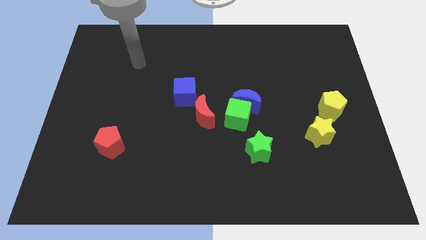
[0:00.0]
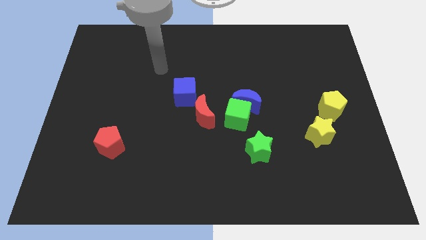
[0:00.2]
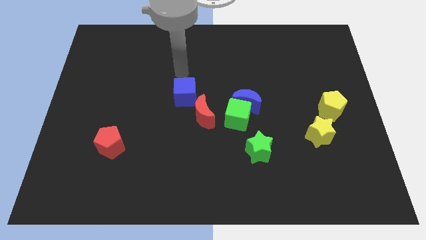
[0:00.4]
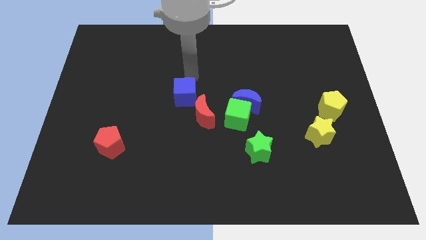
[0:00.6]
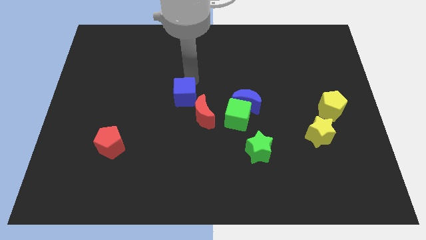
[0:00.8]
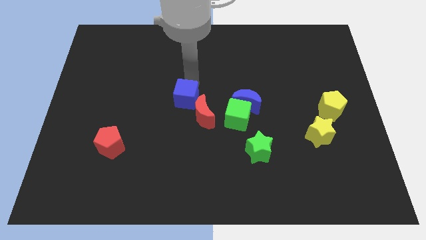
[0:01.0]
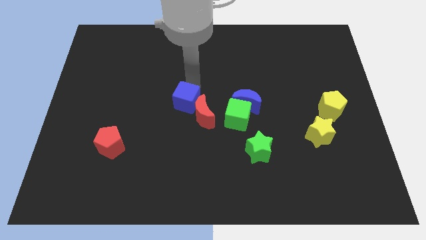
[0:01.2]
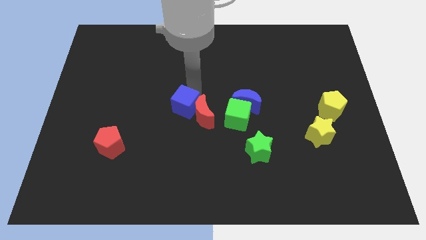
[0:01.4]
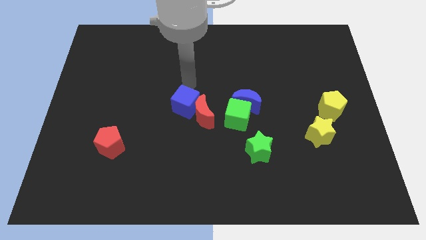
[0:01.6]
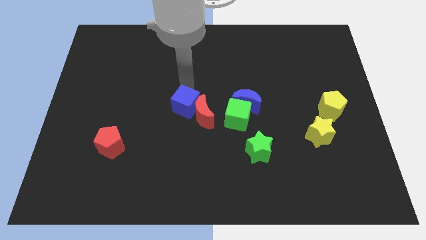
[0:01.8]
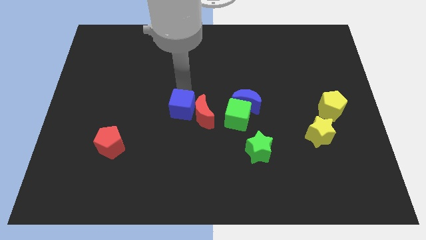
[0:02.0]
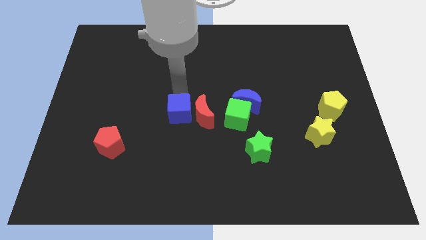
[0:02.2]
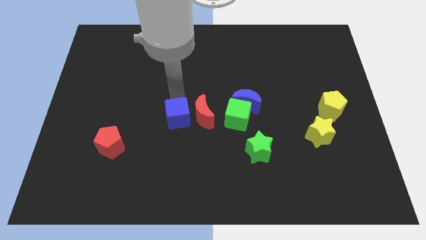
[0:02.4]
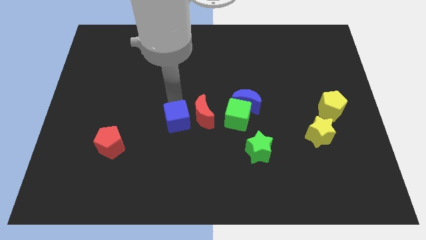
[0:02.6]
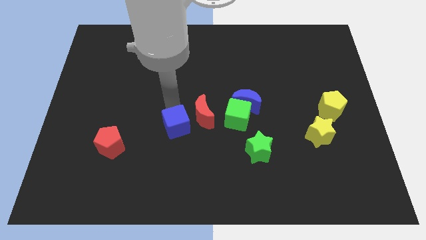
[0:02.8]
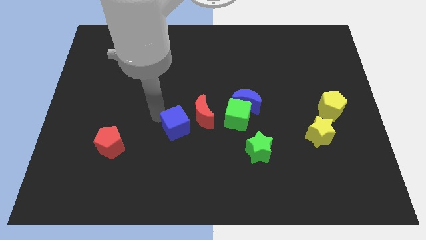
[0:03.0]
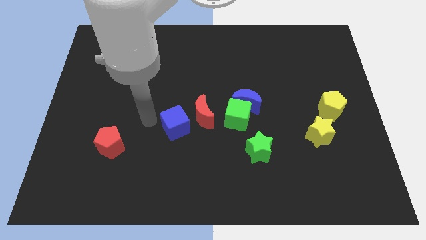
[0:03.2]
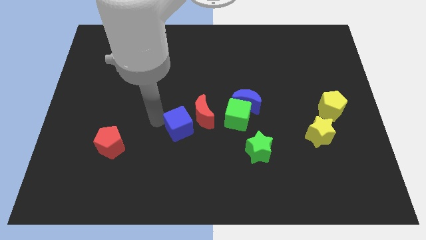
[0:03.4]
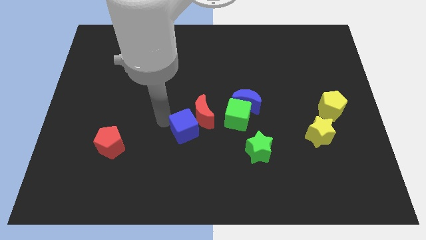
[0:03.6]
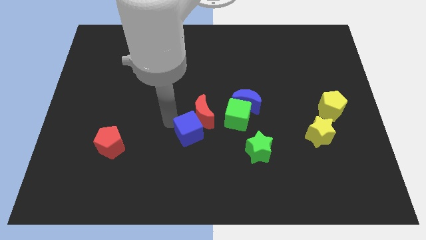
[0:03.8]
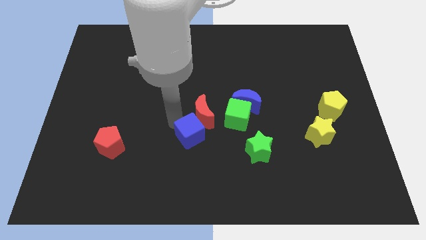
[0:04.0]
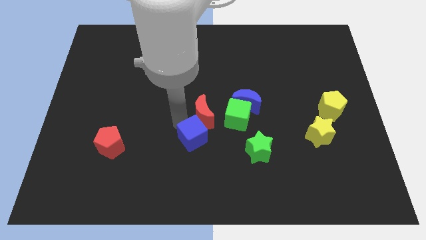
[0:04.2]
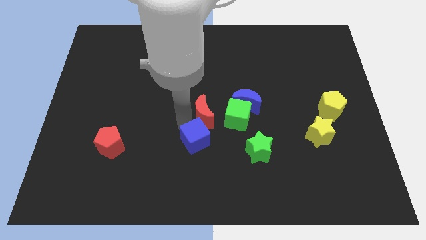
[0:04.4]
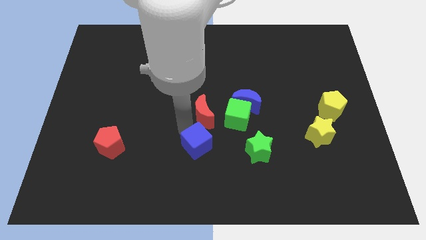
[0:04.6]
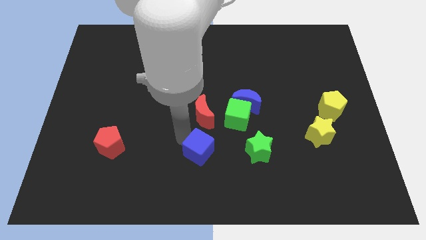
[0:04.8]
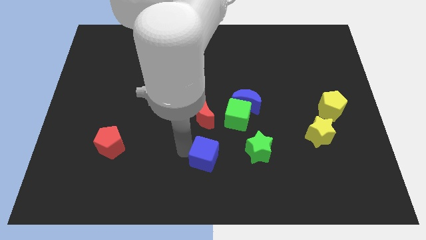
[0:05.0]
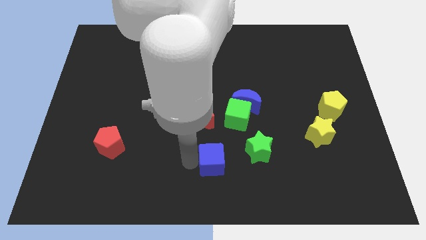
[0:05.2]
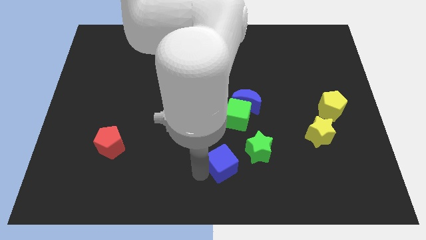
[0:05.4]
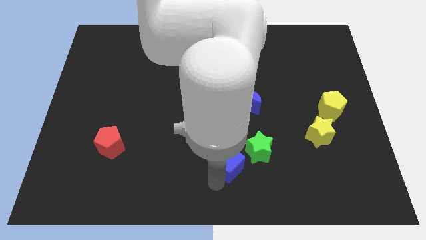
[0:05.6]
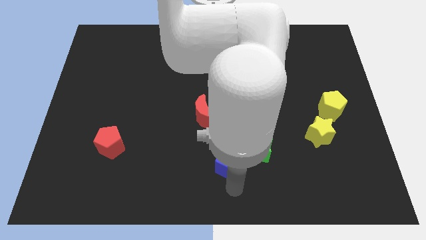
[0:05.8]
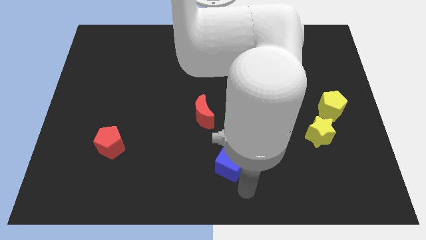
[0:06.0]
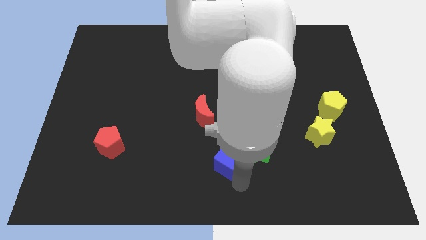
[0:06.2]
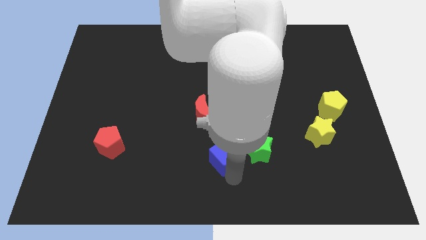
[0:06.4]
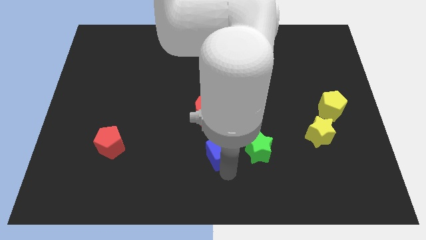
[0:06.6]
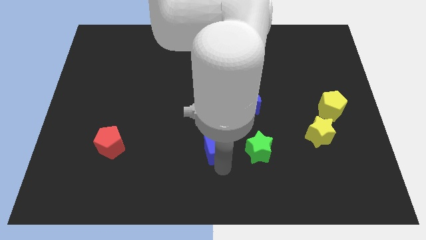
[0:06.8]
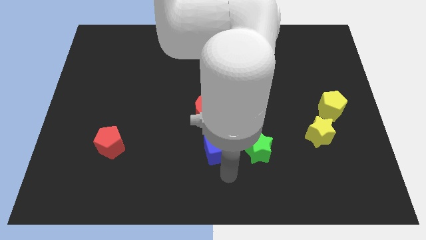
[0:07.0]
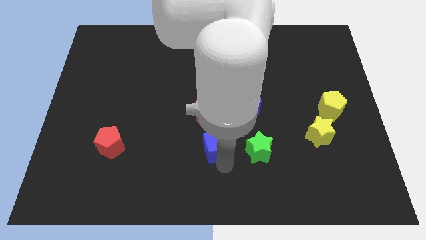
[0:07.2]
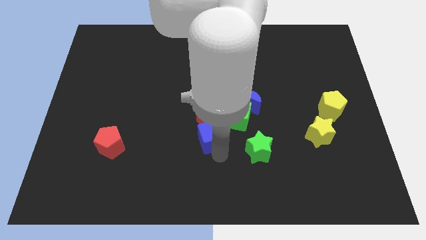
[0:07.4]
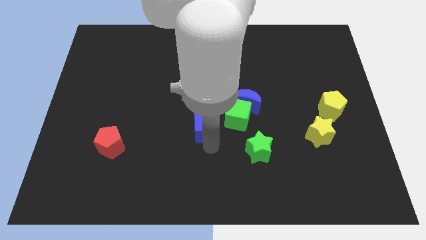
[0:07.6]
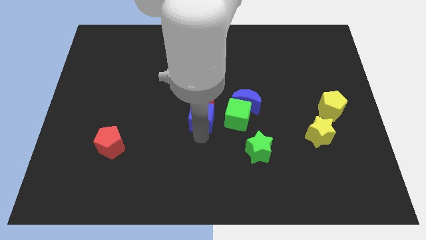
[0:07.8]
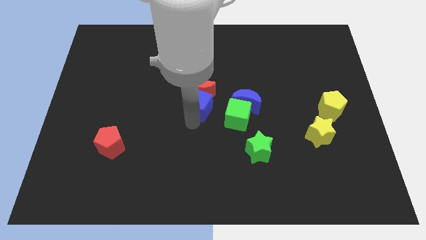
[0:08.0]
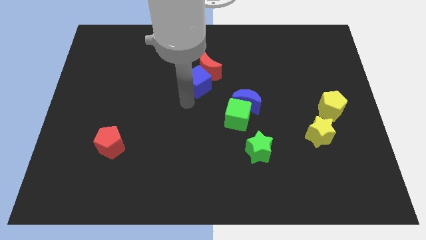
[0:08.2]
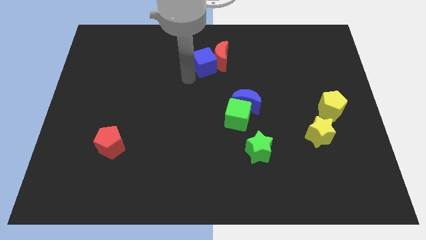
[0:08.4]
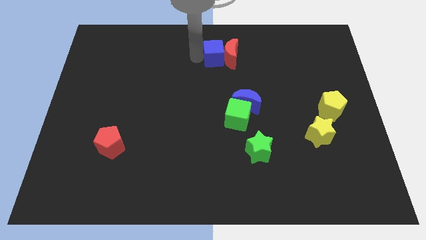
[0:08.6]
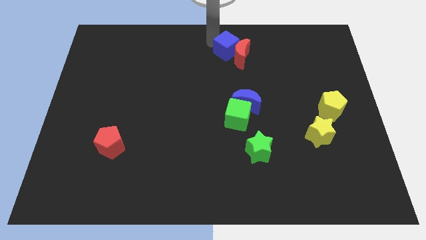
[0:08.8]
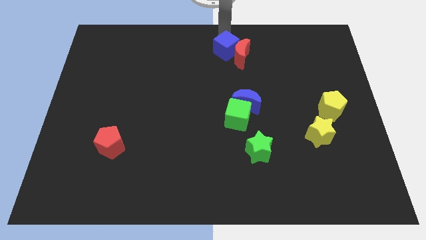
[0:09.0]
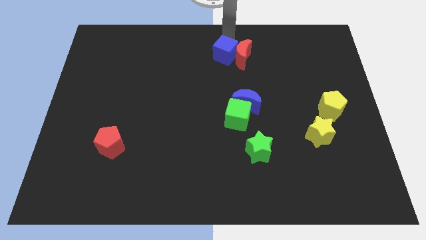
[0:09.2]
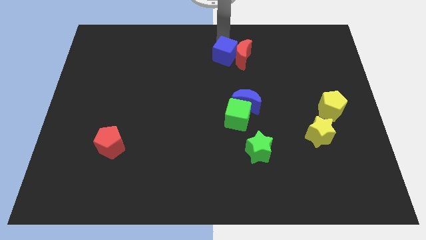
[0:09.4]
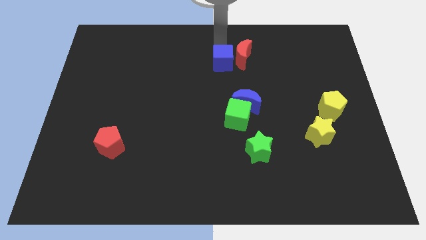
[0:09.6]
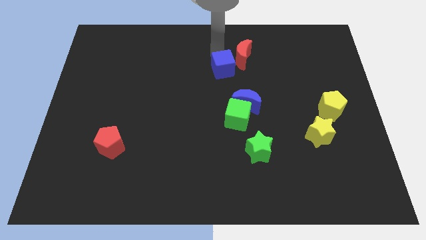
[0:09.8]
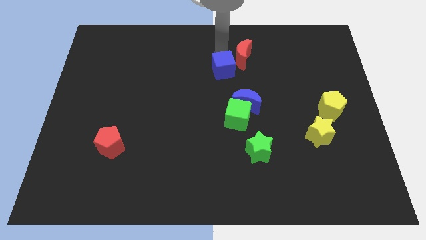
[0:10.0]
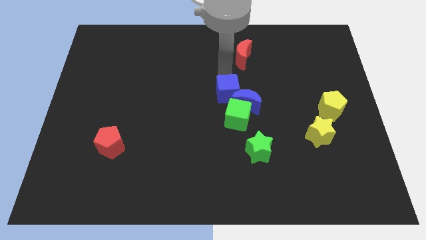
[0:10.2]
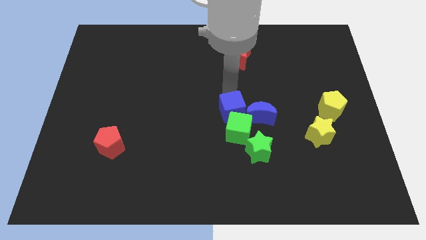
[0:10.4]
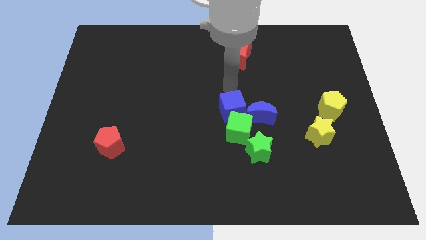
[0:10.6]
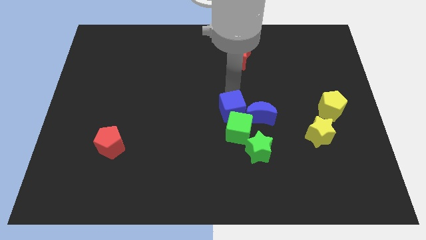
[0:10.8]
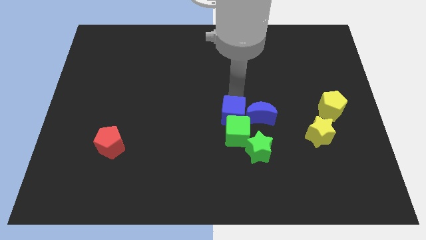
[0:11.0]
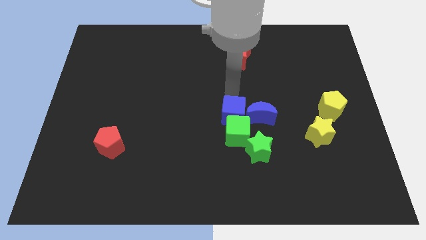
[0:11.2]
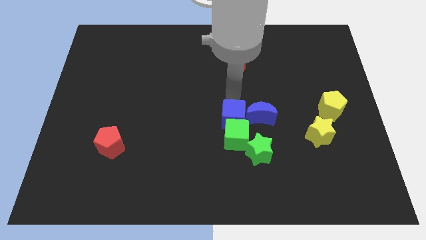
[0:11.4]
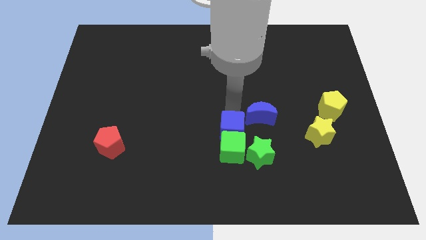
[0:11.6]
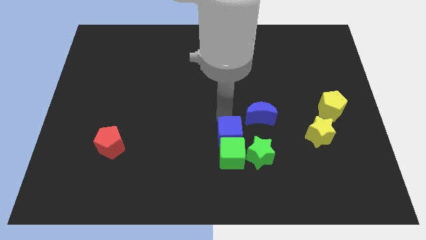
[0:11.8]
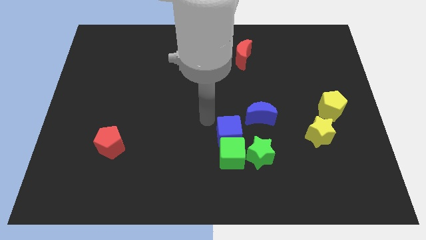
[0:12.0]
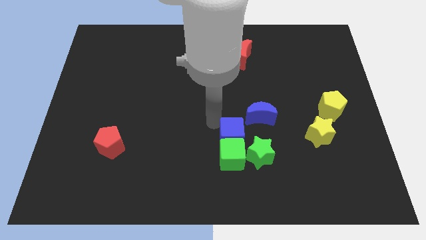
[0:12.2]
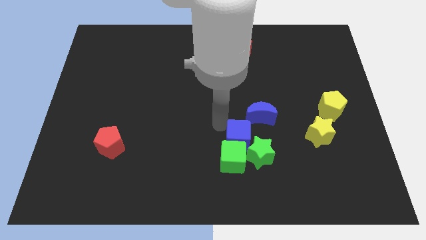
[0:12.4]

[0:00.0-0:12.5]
move the blue cube to the green star
